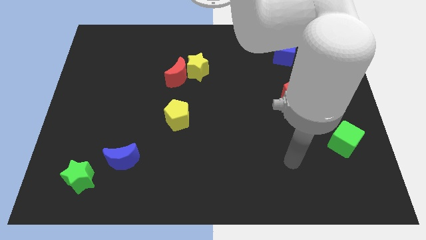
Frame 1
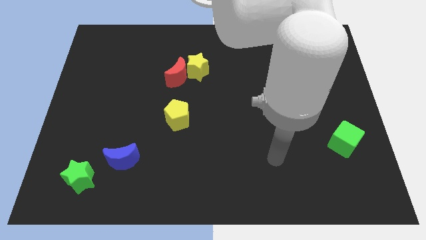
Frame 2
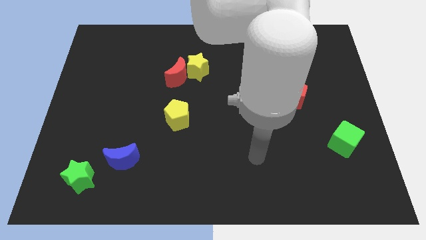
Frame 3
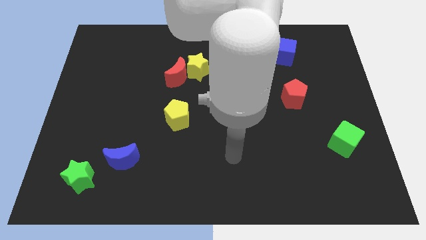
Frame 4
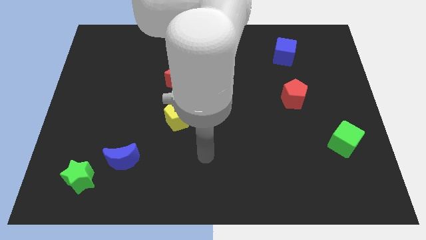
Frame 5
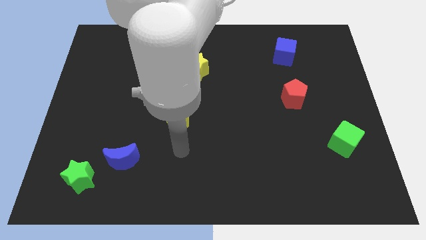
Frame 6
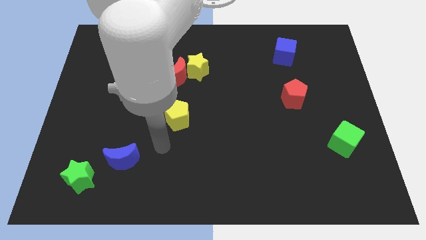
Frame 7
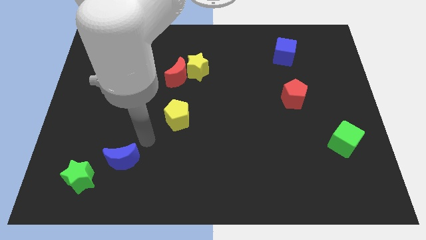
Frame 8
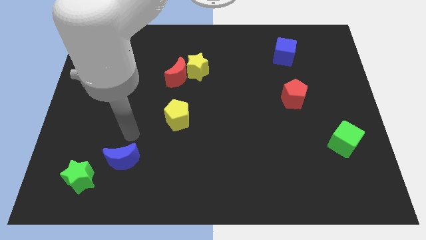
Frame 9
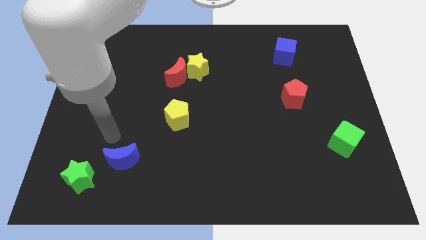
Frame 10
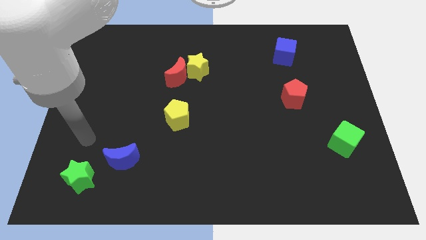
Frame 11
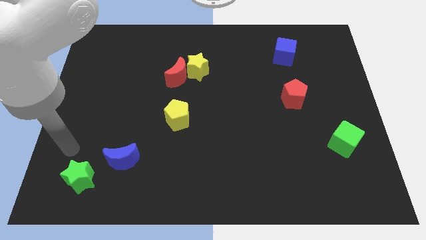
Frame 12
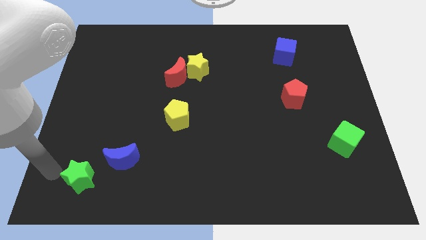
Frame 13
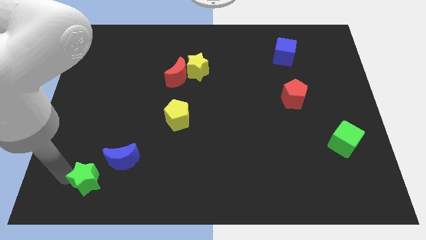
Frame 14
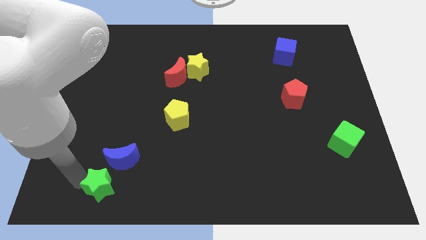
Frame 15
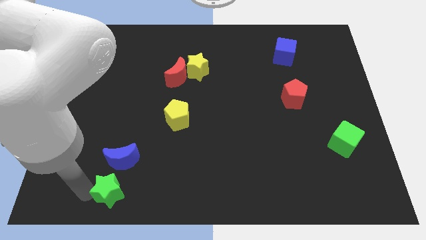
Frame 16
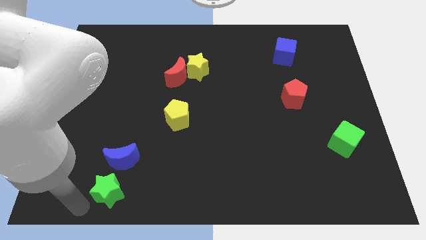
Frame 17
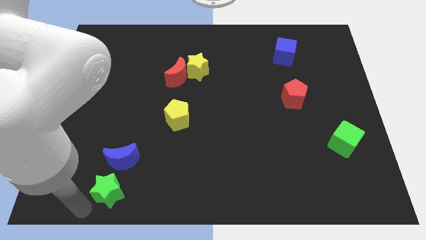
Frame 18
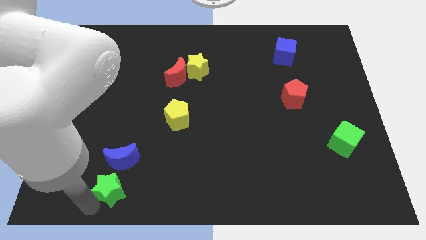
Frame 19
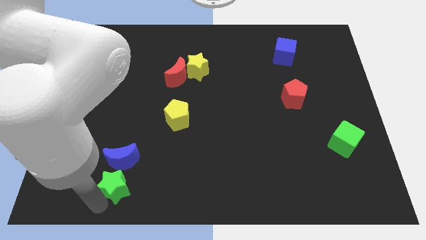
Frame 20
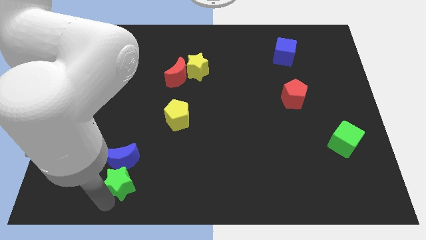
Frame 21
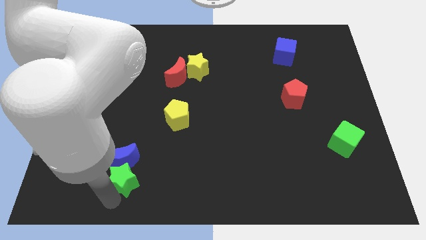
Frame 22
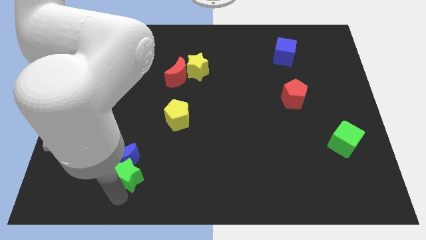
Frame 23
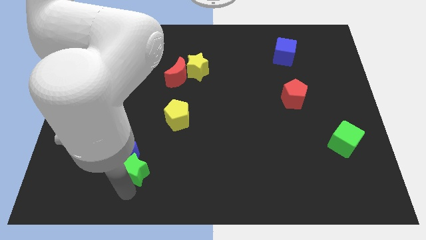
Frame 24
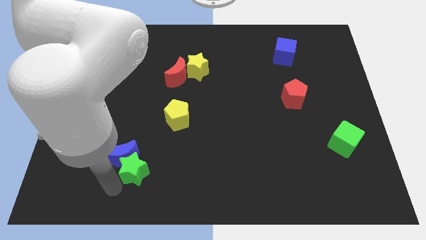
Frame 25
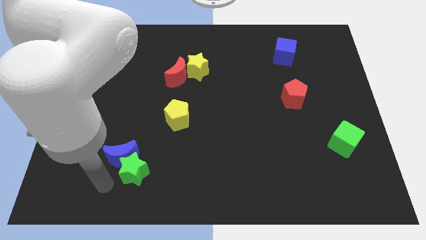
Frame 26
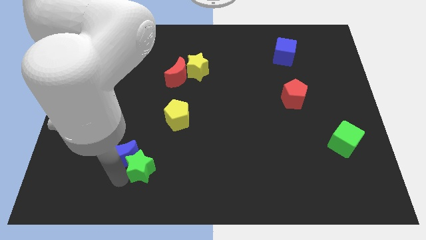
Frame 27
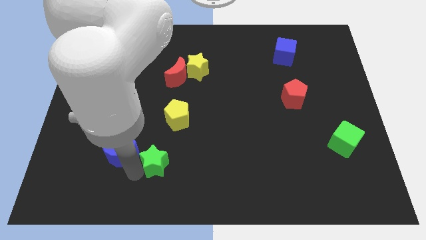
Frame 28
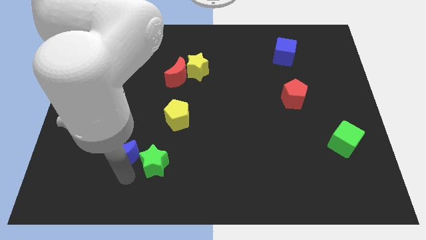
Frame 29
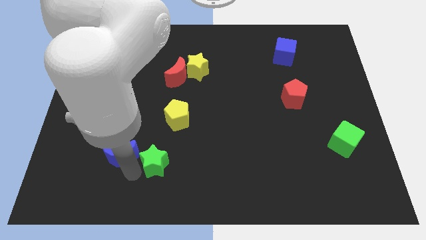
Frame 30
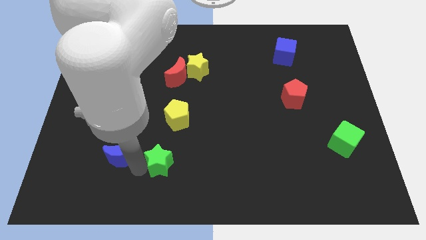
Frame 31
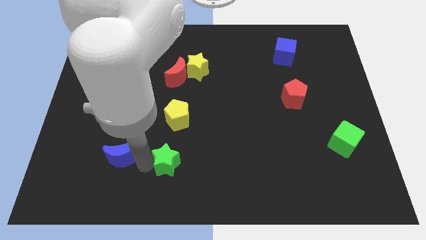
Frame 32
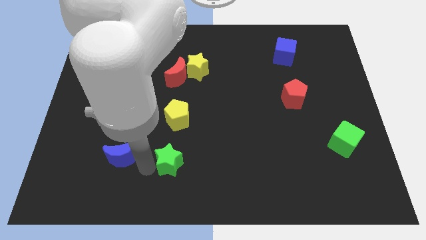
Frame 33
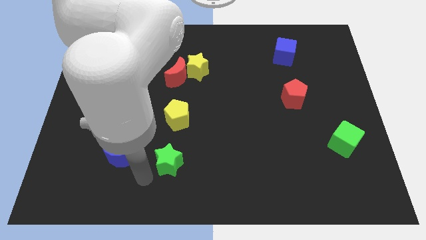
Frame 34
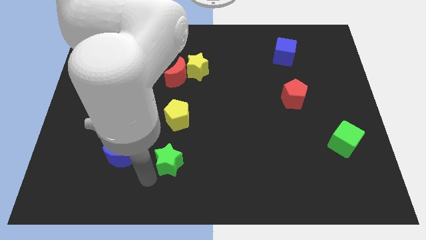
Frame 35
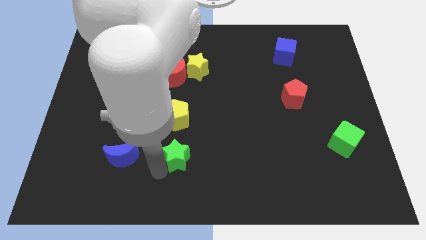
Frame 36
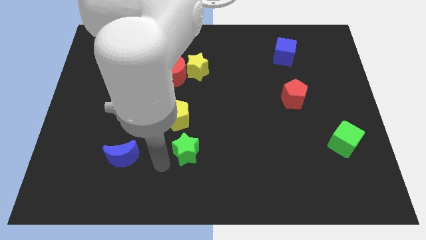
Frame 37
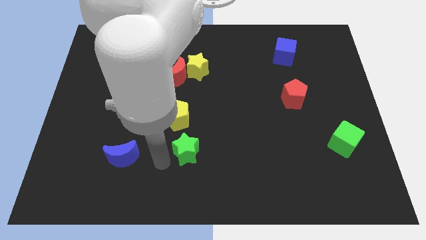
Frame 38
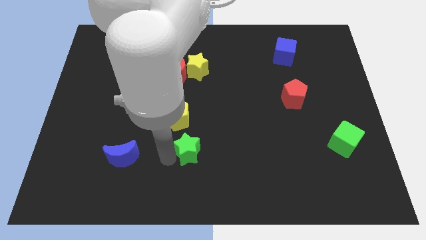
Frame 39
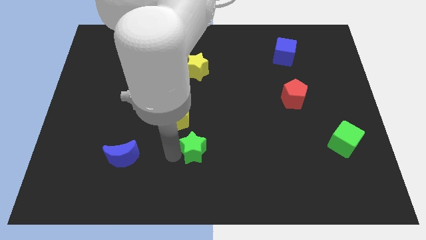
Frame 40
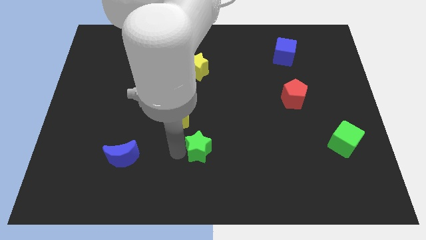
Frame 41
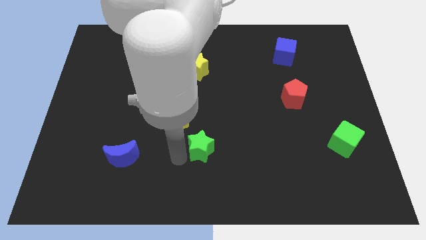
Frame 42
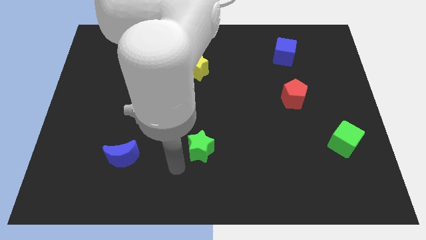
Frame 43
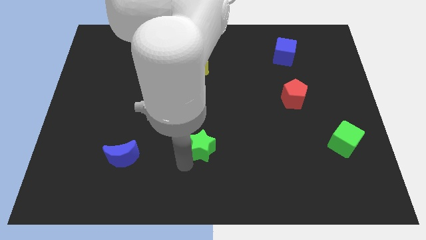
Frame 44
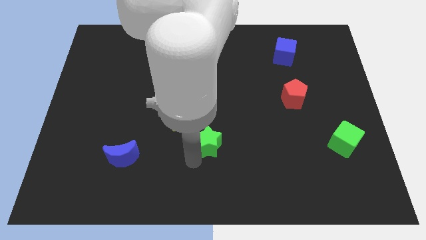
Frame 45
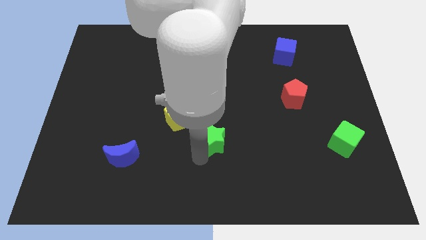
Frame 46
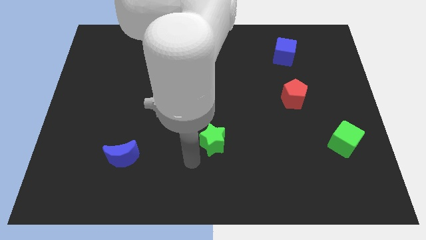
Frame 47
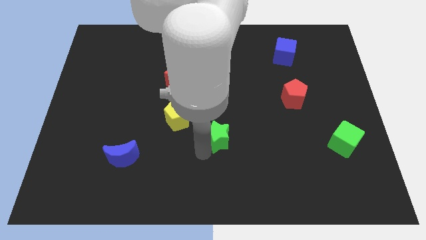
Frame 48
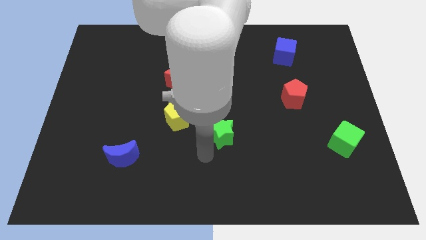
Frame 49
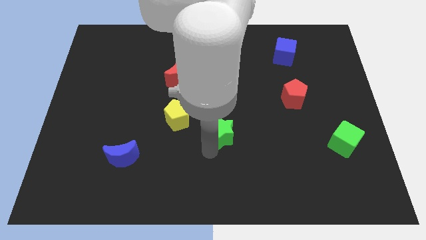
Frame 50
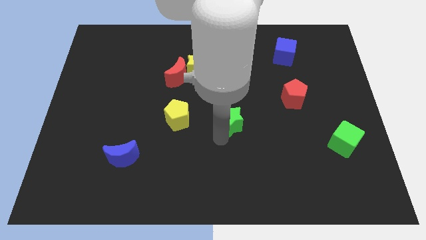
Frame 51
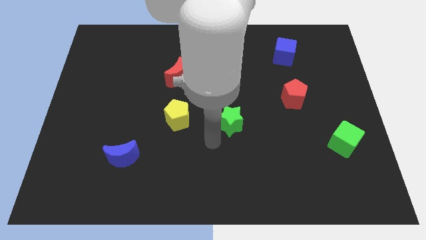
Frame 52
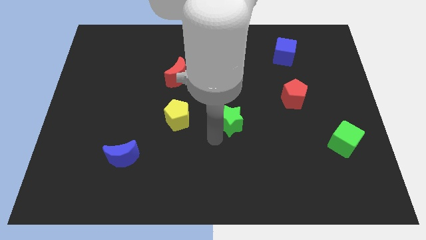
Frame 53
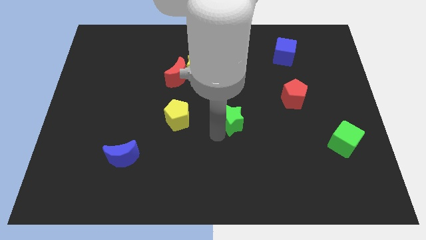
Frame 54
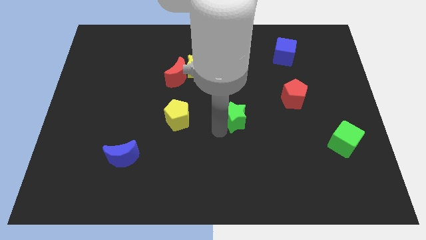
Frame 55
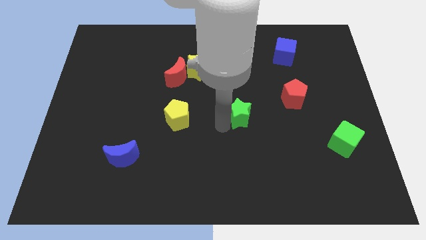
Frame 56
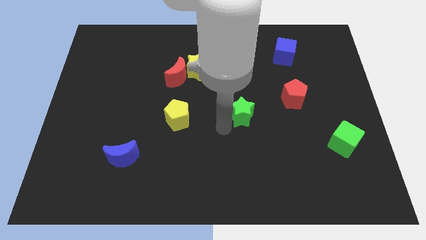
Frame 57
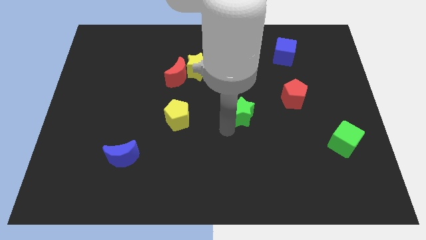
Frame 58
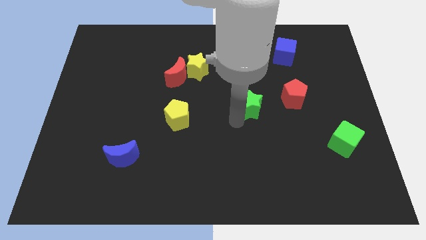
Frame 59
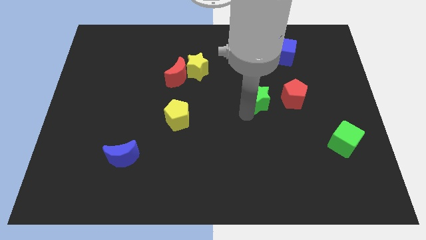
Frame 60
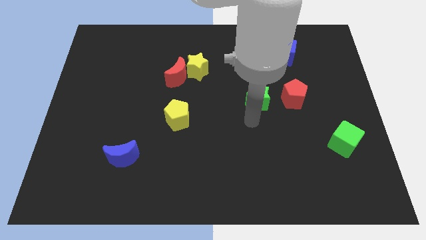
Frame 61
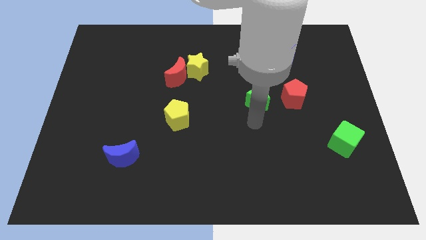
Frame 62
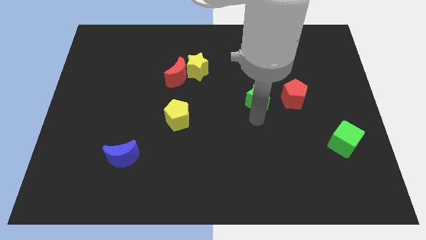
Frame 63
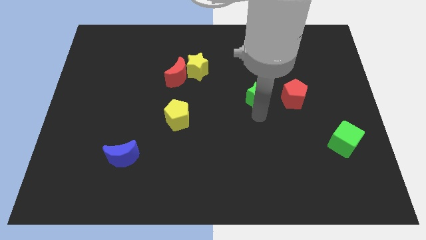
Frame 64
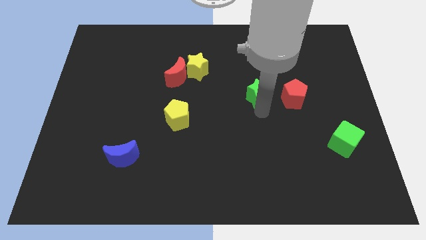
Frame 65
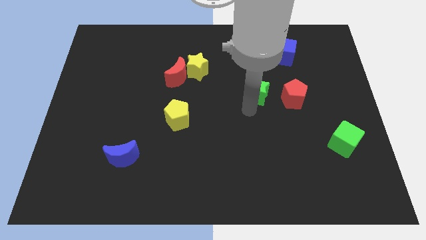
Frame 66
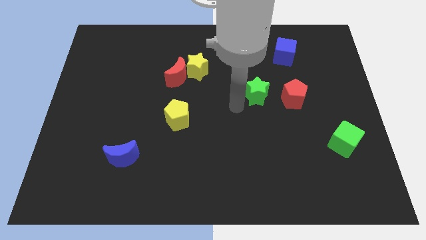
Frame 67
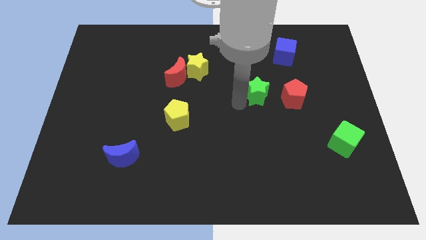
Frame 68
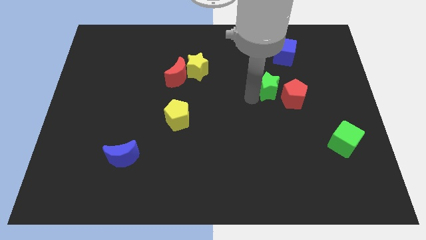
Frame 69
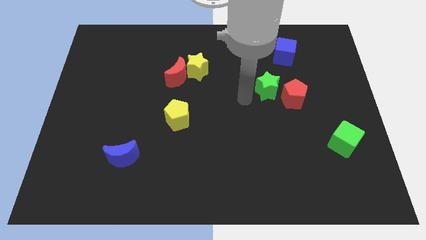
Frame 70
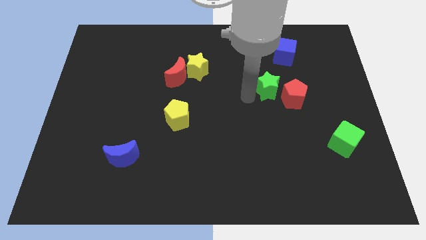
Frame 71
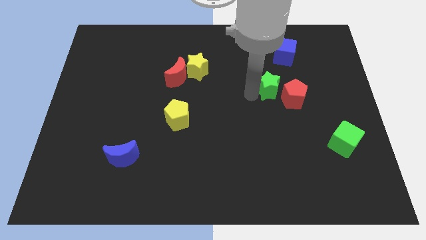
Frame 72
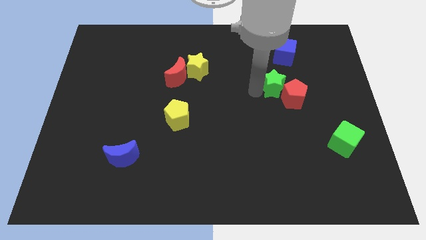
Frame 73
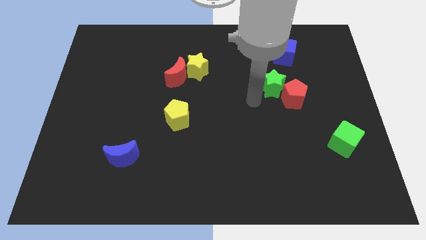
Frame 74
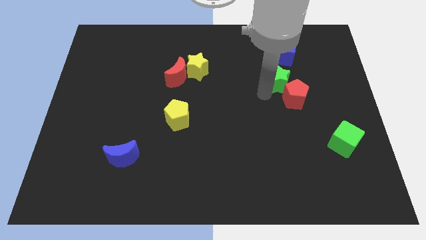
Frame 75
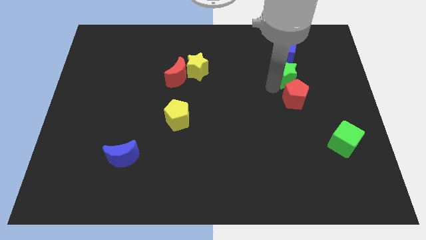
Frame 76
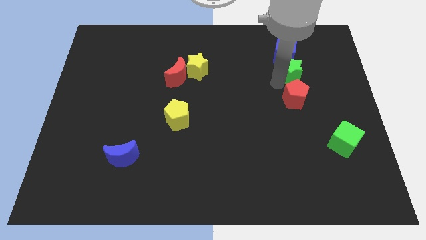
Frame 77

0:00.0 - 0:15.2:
push the green star diagonally down and to the right of the blue cube
